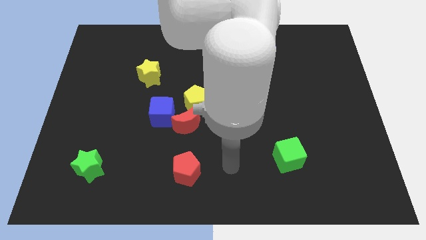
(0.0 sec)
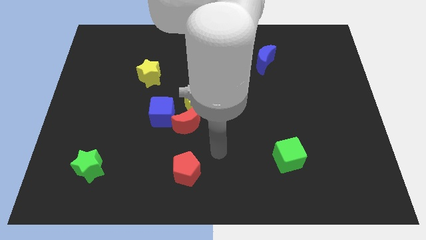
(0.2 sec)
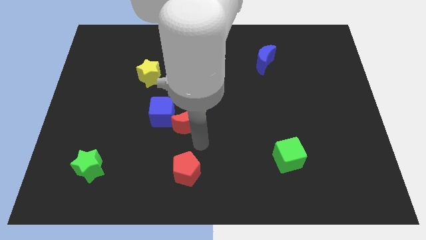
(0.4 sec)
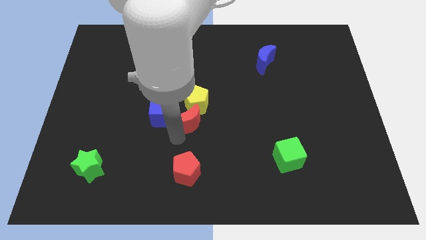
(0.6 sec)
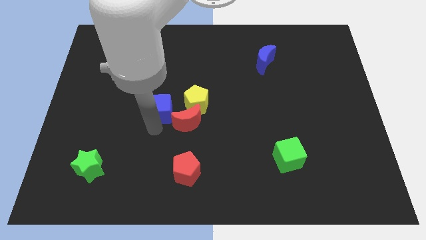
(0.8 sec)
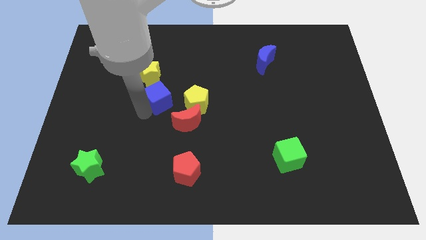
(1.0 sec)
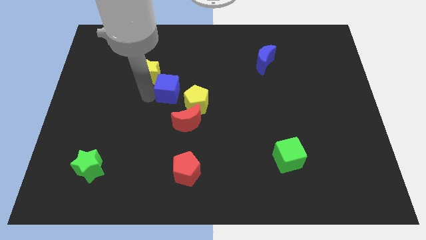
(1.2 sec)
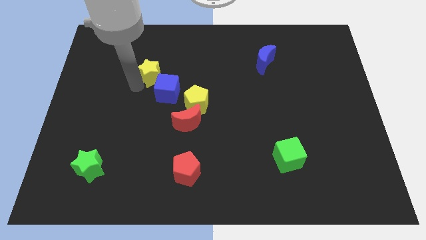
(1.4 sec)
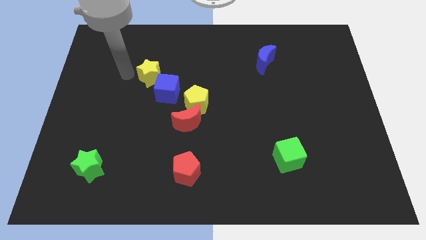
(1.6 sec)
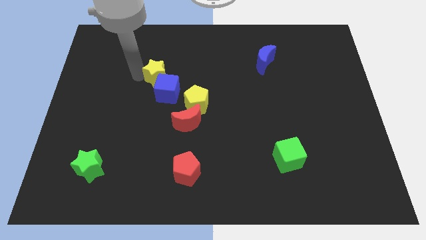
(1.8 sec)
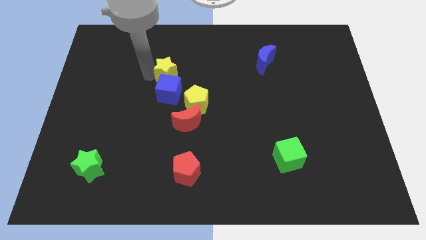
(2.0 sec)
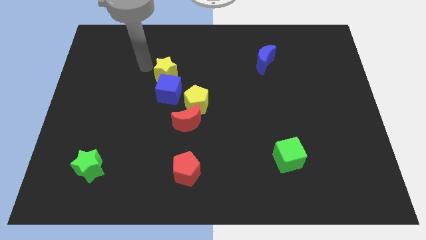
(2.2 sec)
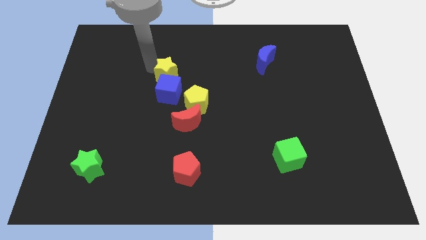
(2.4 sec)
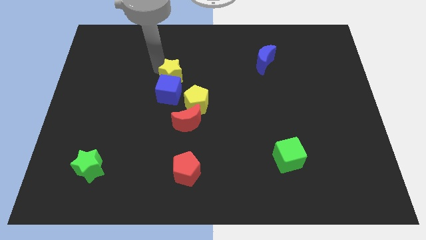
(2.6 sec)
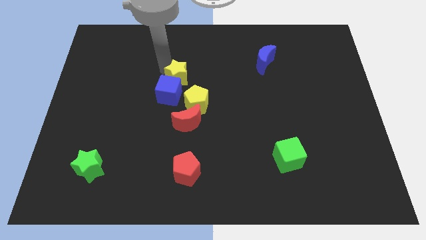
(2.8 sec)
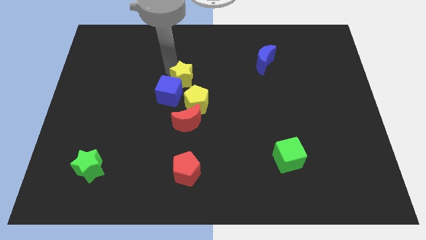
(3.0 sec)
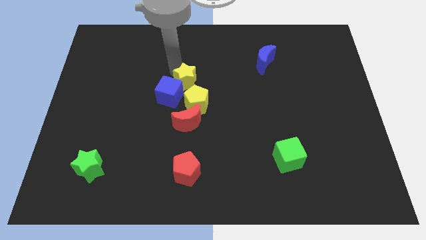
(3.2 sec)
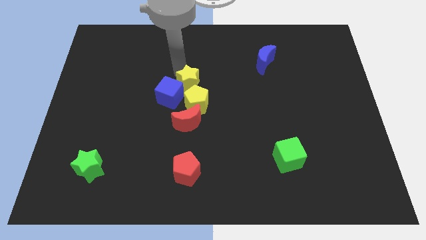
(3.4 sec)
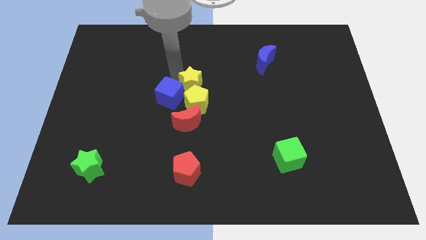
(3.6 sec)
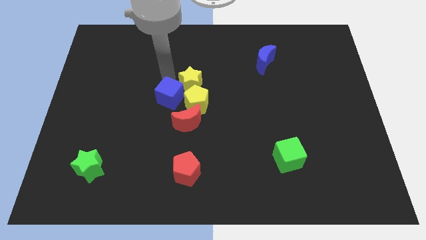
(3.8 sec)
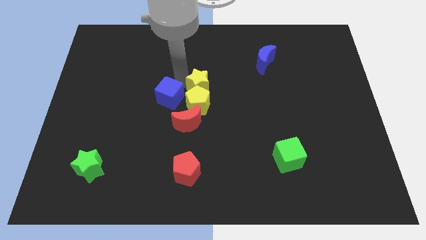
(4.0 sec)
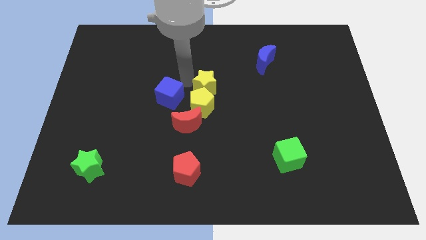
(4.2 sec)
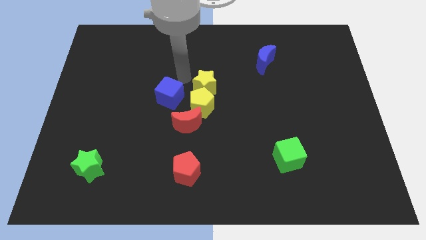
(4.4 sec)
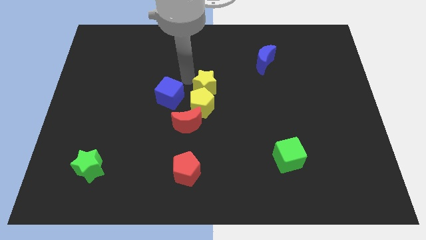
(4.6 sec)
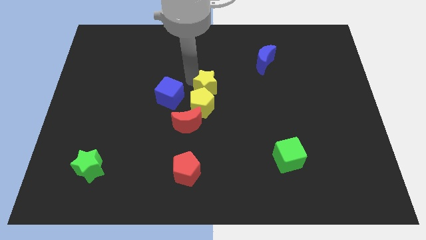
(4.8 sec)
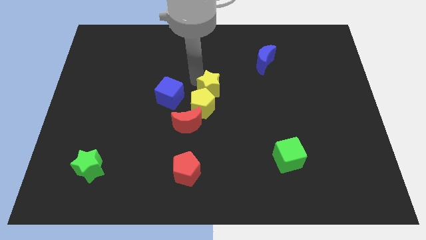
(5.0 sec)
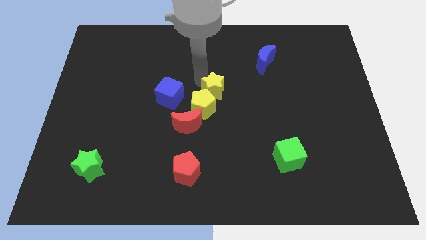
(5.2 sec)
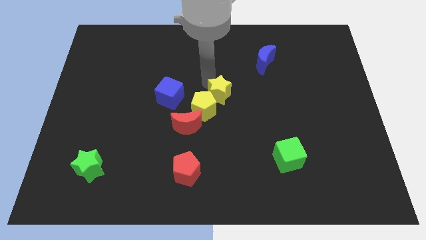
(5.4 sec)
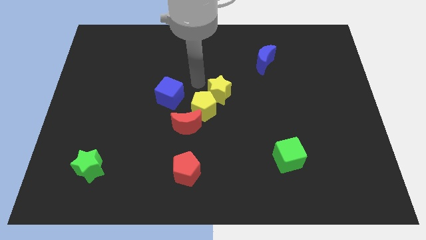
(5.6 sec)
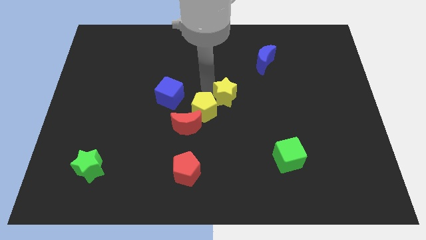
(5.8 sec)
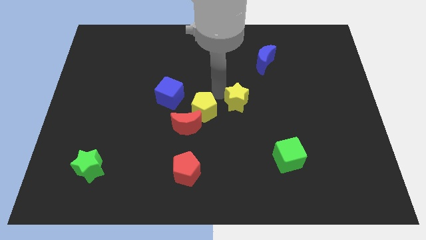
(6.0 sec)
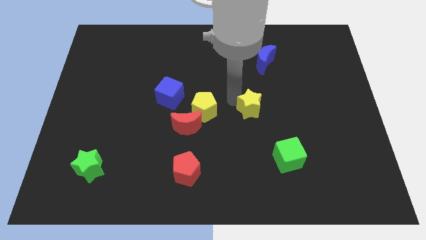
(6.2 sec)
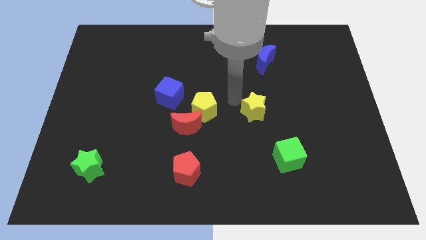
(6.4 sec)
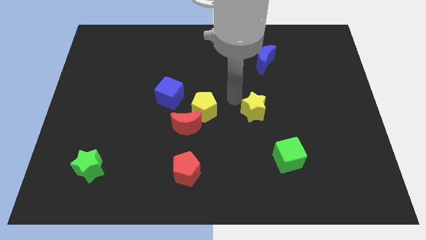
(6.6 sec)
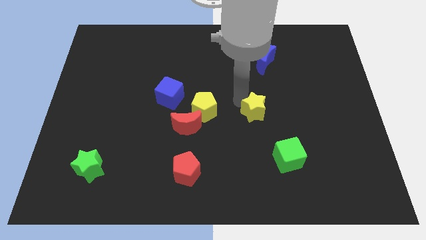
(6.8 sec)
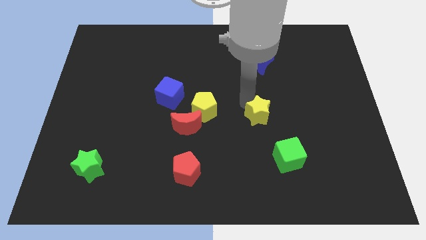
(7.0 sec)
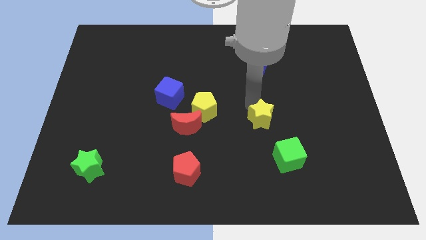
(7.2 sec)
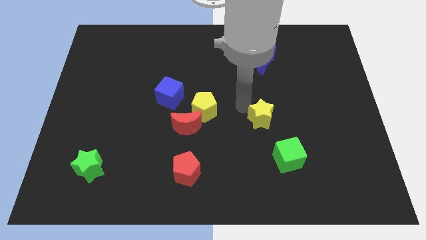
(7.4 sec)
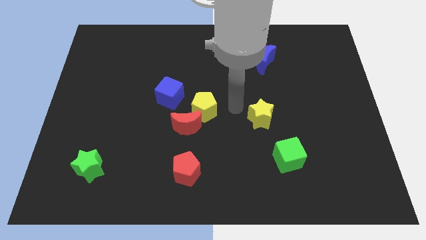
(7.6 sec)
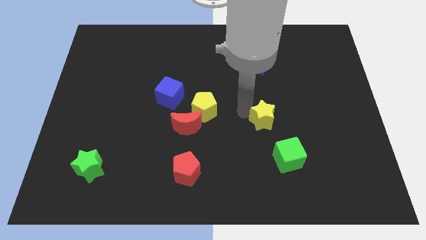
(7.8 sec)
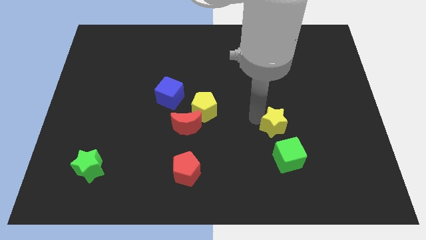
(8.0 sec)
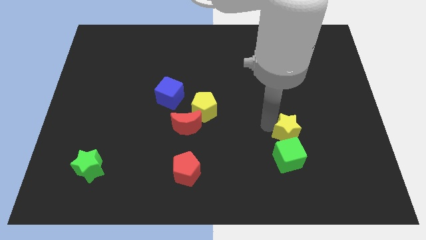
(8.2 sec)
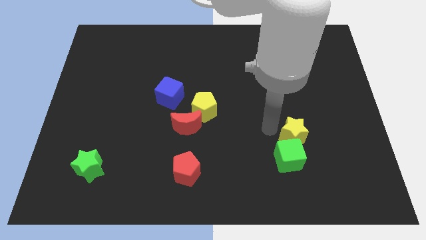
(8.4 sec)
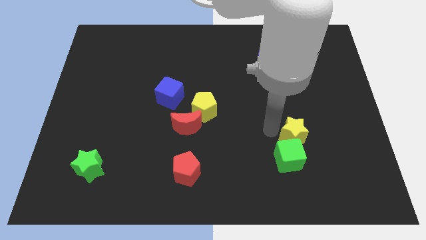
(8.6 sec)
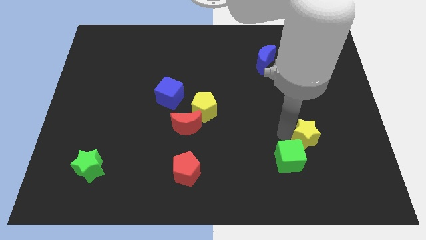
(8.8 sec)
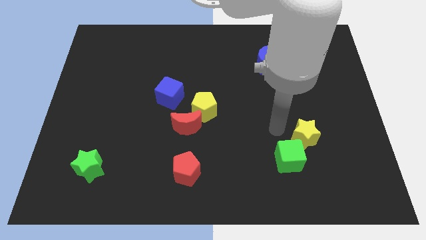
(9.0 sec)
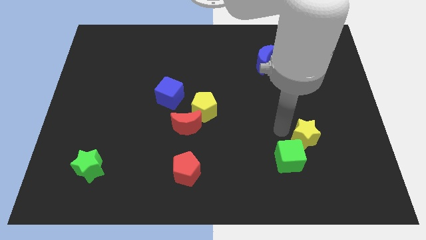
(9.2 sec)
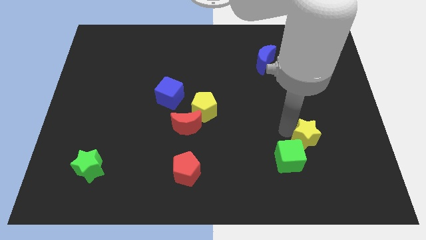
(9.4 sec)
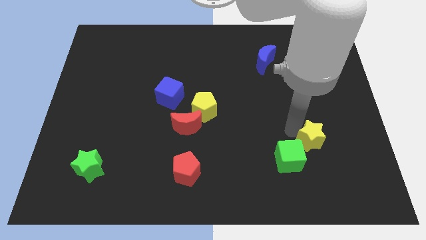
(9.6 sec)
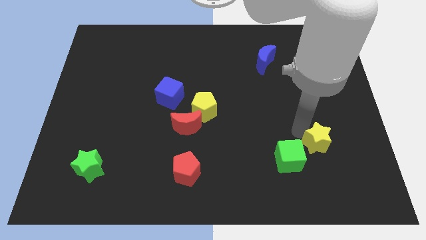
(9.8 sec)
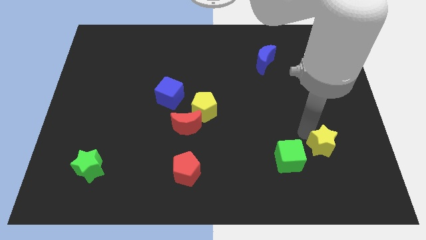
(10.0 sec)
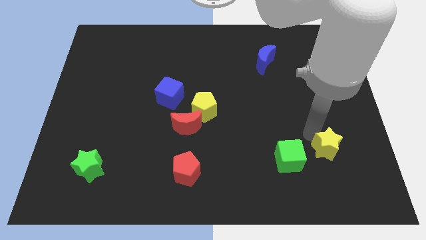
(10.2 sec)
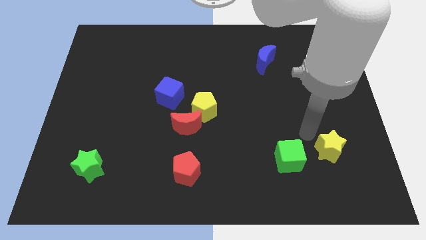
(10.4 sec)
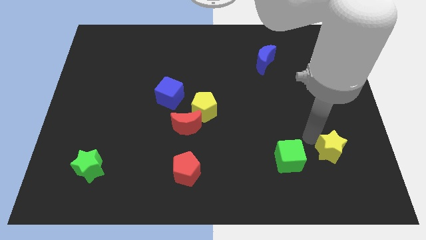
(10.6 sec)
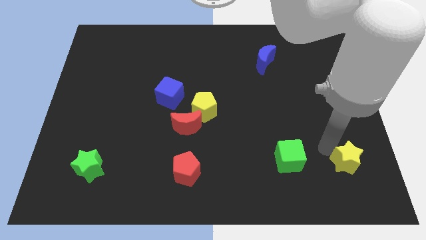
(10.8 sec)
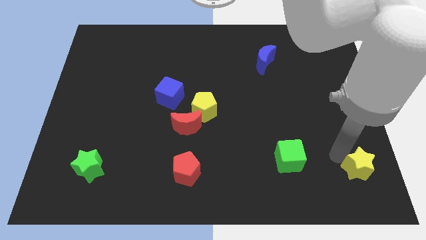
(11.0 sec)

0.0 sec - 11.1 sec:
slide the yellow star to the lower right corner

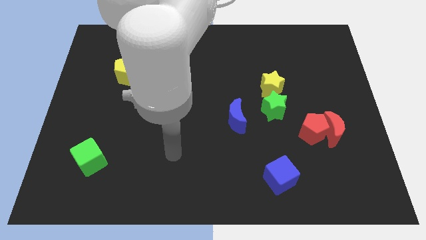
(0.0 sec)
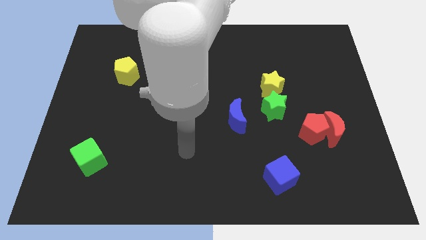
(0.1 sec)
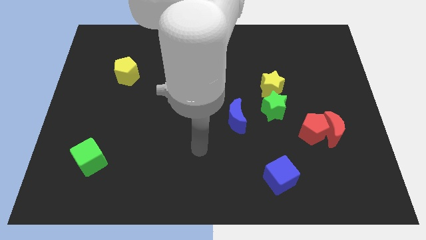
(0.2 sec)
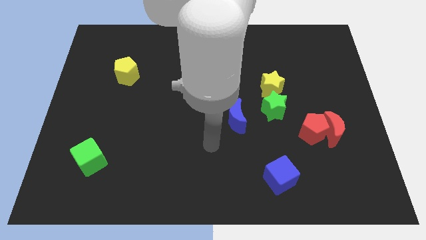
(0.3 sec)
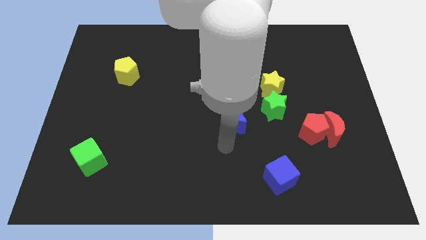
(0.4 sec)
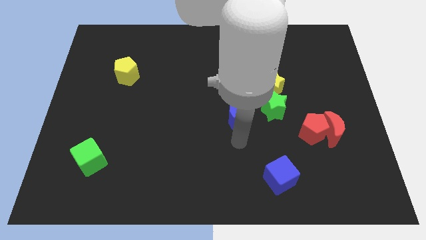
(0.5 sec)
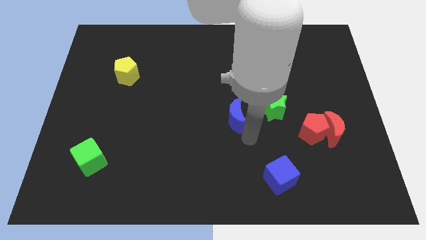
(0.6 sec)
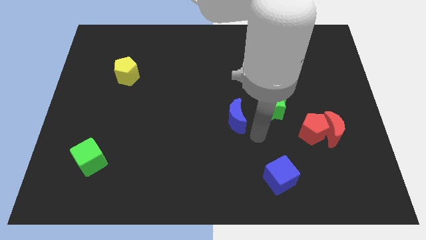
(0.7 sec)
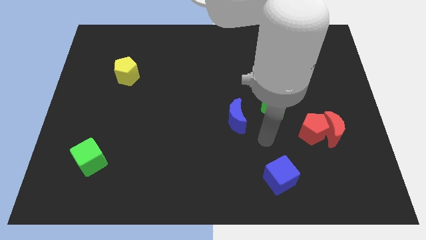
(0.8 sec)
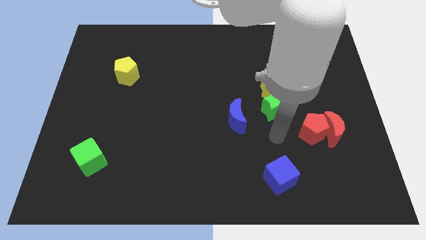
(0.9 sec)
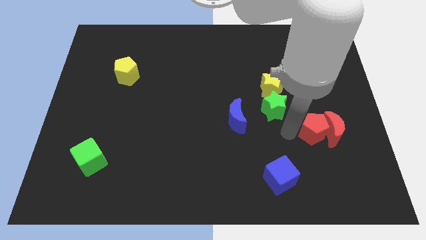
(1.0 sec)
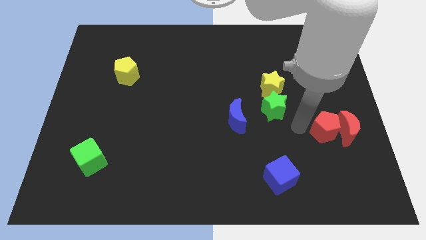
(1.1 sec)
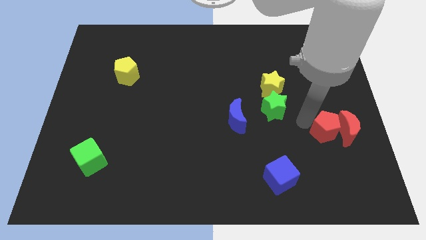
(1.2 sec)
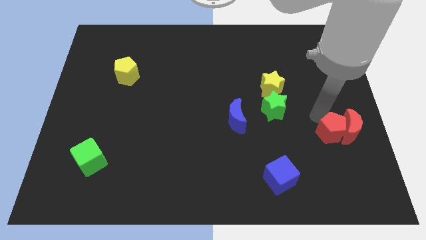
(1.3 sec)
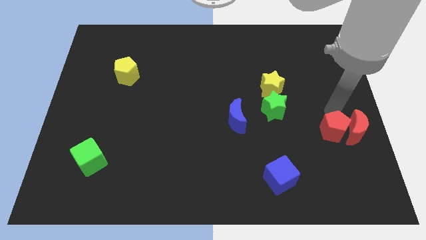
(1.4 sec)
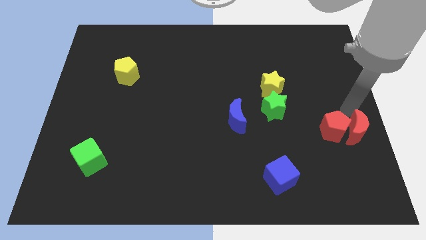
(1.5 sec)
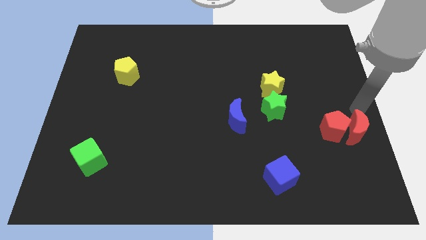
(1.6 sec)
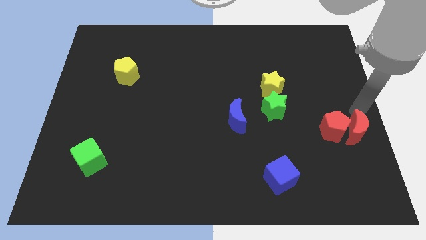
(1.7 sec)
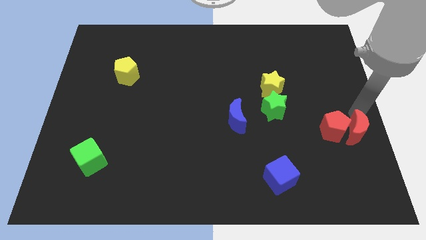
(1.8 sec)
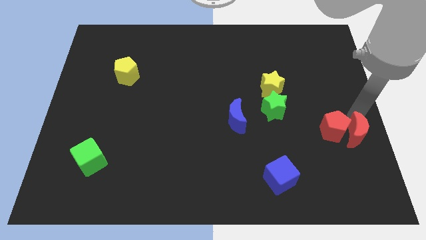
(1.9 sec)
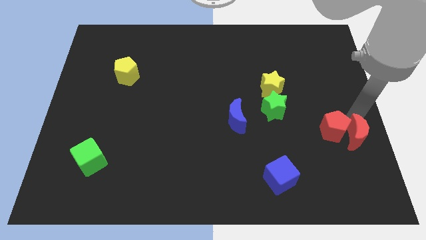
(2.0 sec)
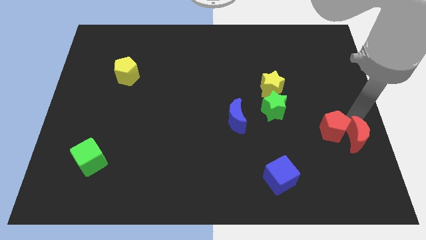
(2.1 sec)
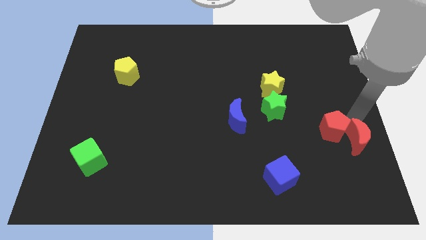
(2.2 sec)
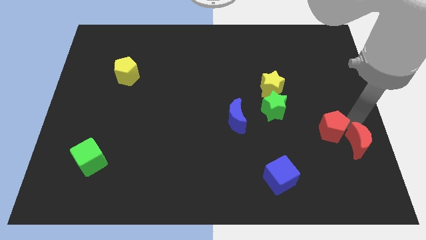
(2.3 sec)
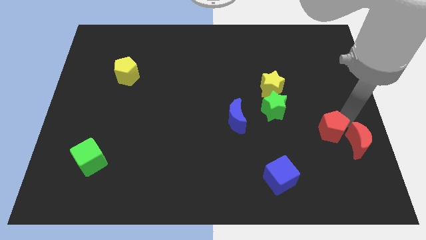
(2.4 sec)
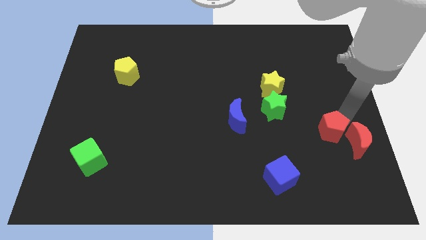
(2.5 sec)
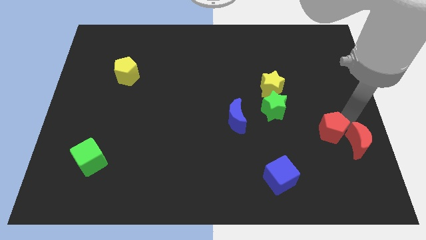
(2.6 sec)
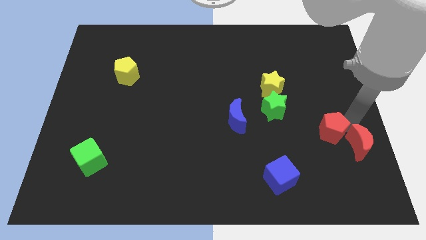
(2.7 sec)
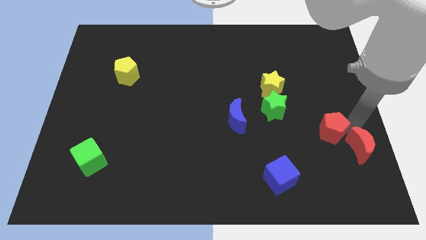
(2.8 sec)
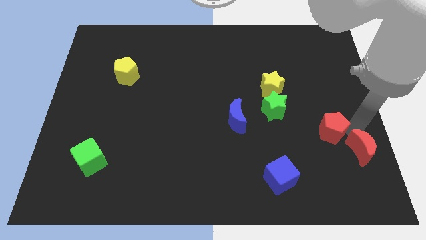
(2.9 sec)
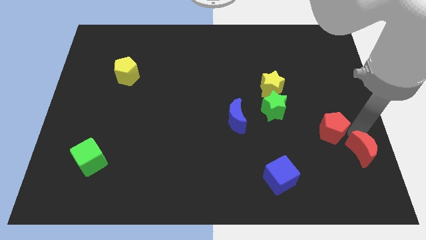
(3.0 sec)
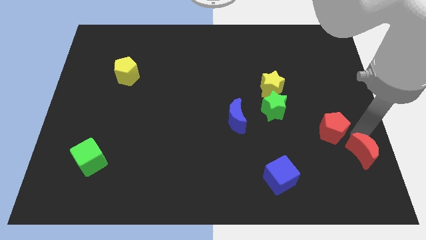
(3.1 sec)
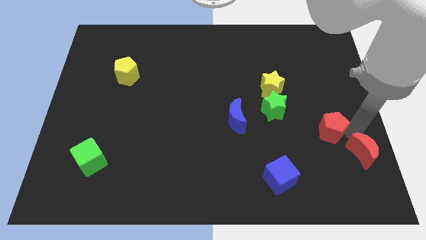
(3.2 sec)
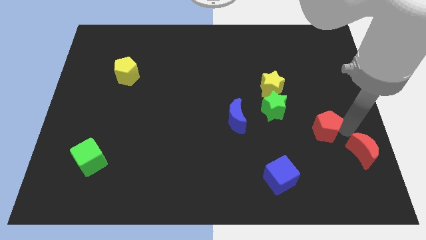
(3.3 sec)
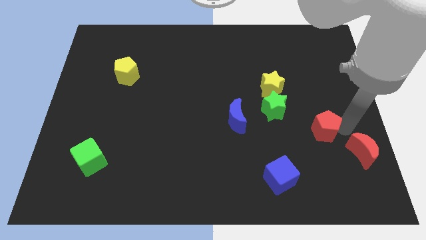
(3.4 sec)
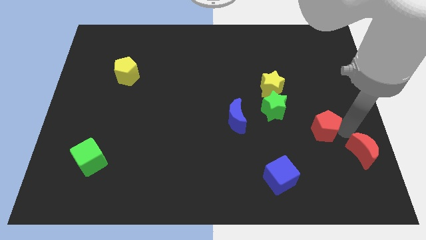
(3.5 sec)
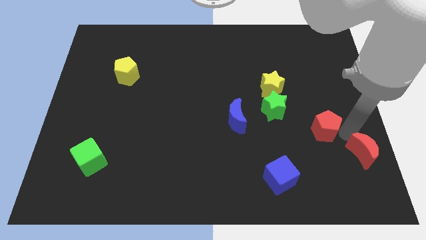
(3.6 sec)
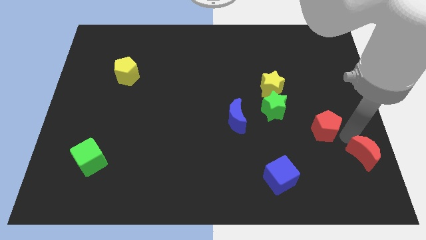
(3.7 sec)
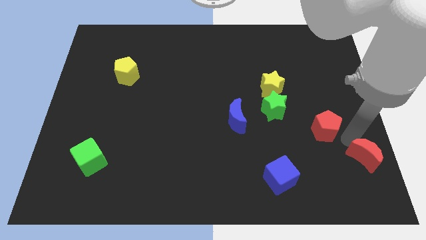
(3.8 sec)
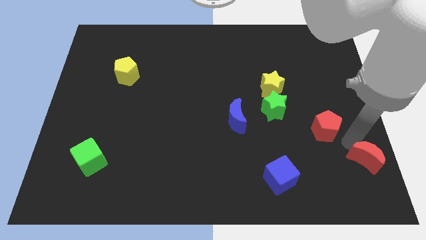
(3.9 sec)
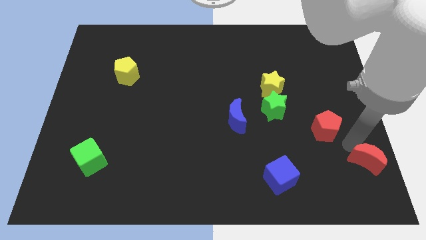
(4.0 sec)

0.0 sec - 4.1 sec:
put the red moon to the bottom right corner
